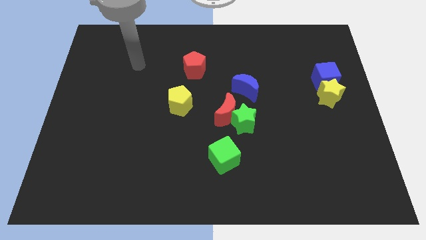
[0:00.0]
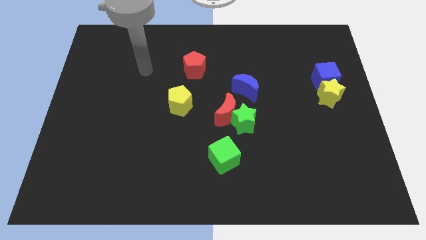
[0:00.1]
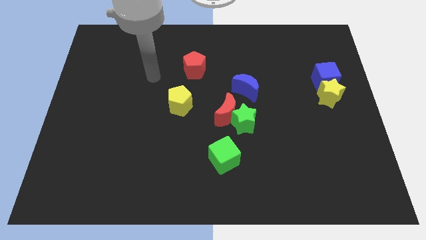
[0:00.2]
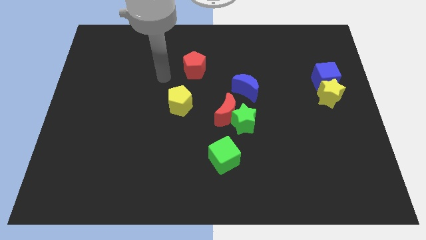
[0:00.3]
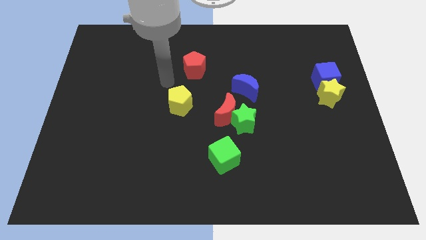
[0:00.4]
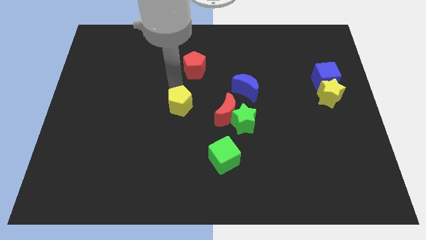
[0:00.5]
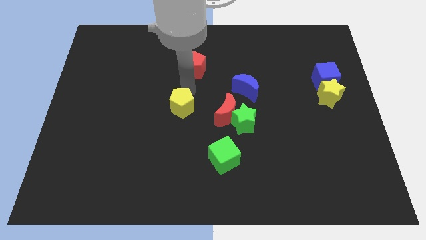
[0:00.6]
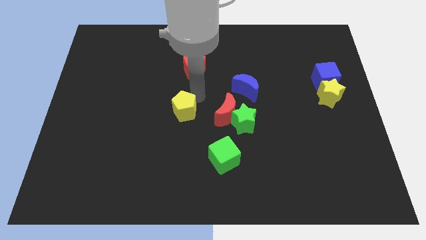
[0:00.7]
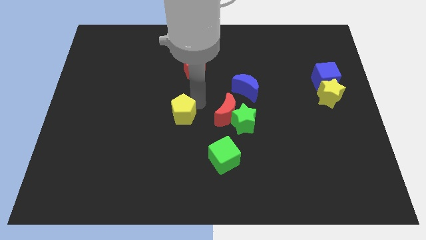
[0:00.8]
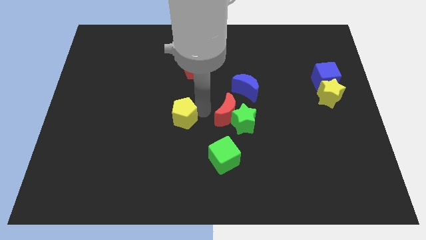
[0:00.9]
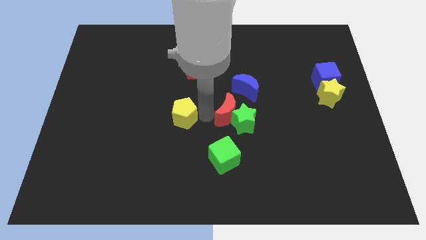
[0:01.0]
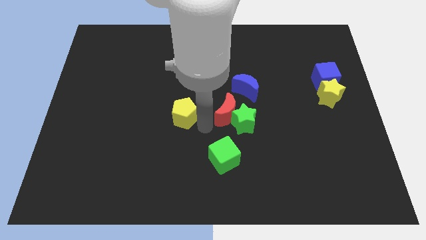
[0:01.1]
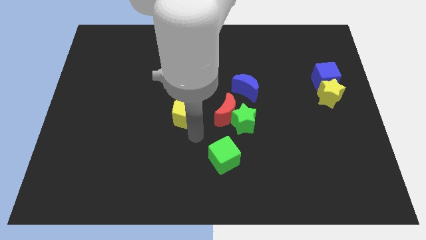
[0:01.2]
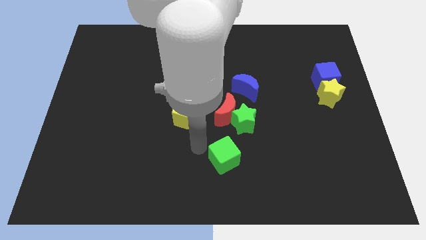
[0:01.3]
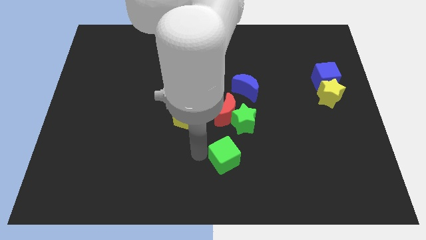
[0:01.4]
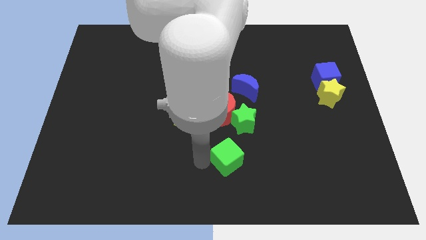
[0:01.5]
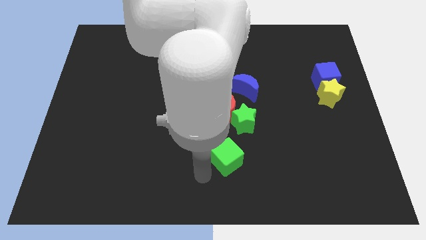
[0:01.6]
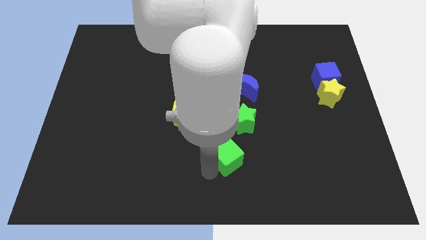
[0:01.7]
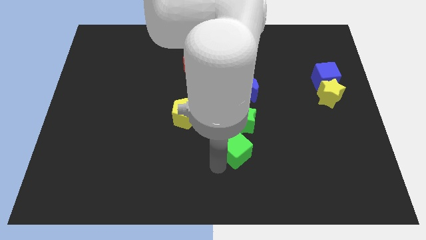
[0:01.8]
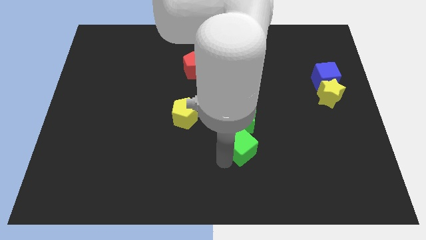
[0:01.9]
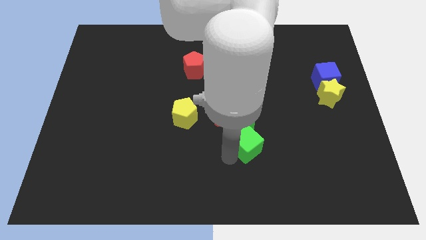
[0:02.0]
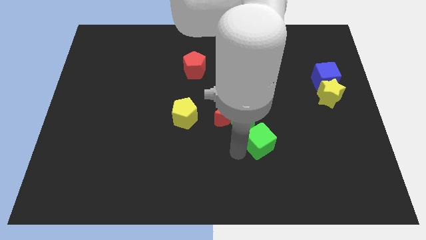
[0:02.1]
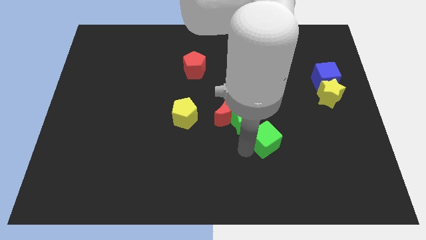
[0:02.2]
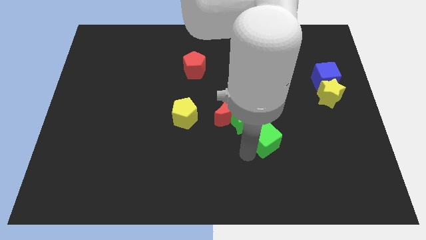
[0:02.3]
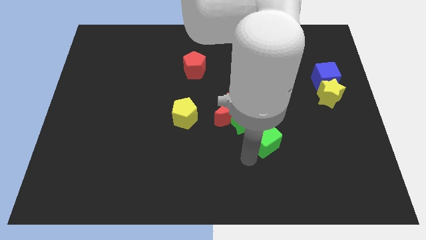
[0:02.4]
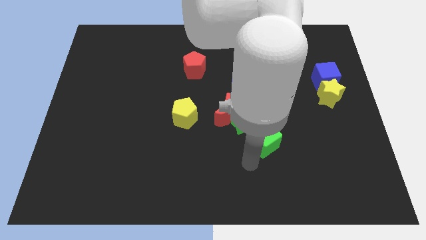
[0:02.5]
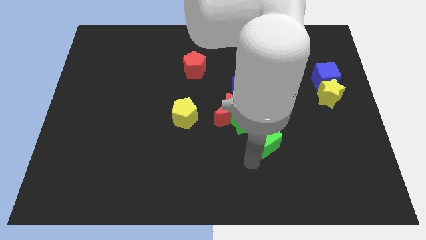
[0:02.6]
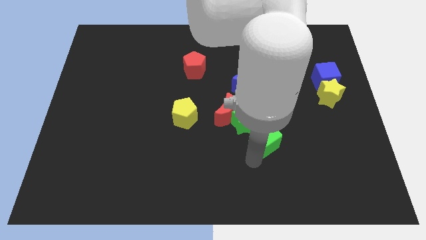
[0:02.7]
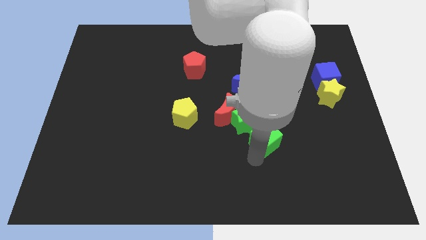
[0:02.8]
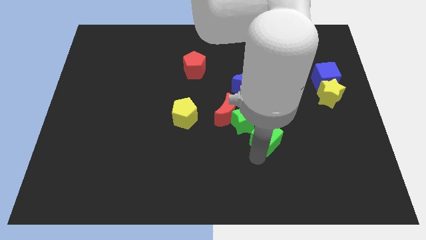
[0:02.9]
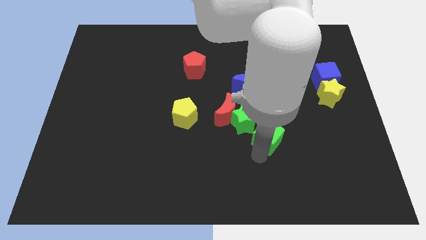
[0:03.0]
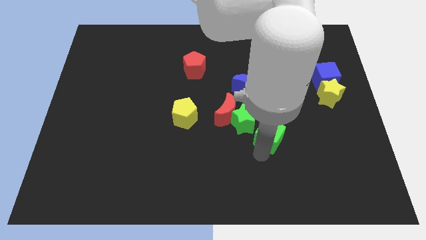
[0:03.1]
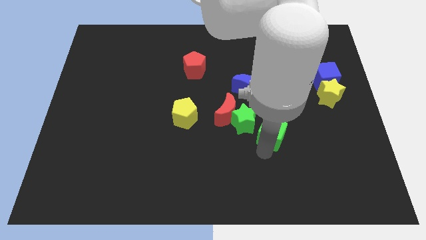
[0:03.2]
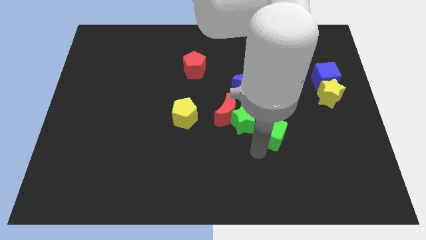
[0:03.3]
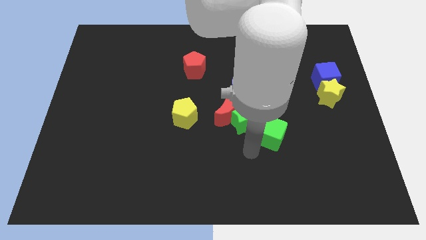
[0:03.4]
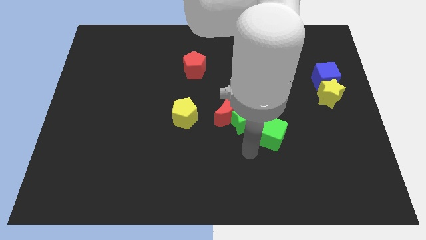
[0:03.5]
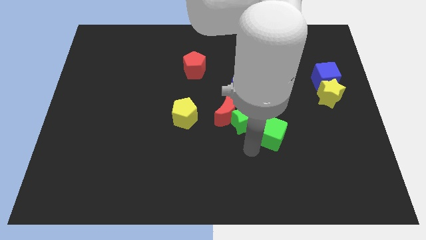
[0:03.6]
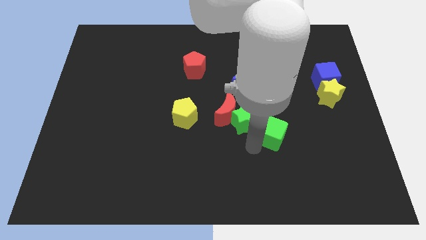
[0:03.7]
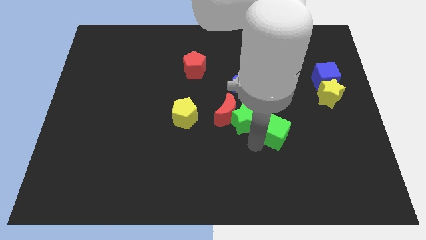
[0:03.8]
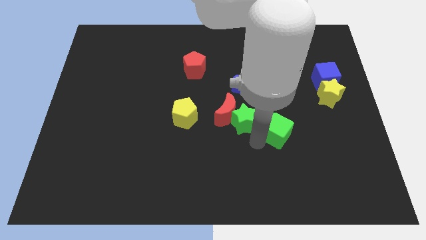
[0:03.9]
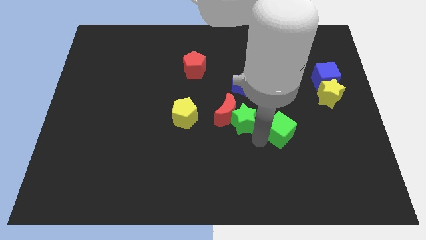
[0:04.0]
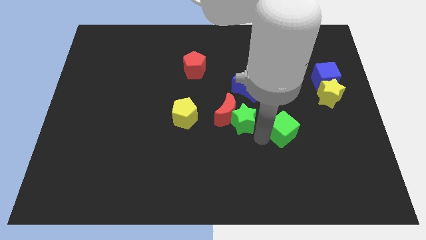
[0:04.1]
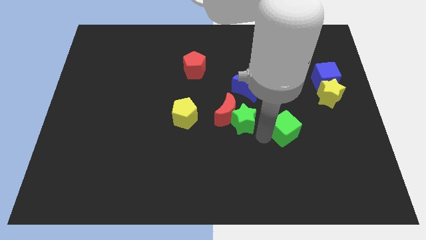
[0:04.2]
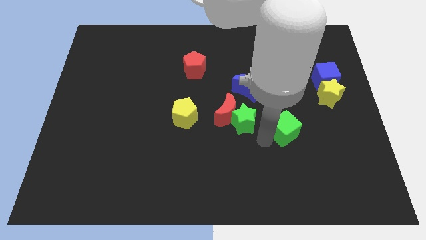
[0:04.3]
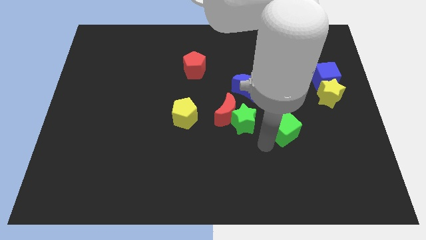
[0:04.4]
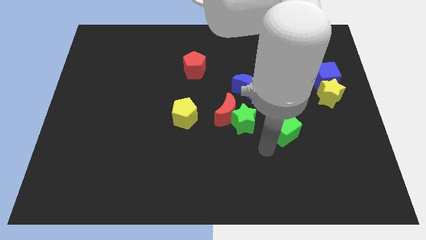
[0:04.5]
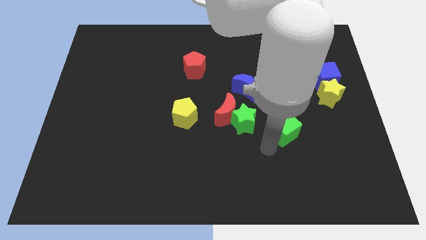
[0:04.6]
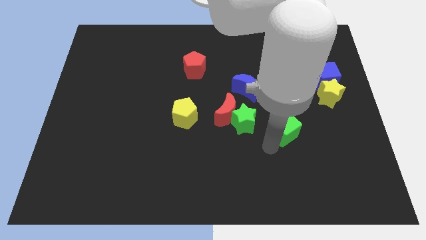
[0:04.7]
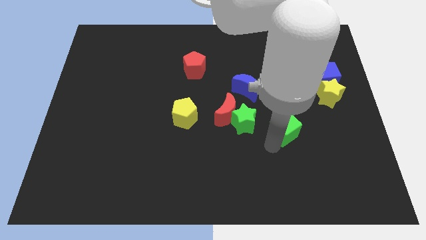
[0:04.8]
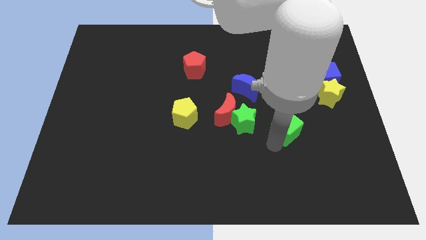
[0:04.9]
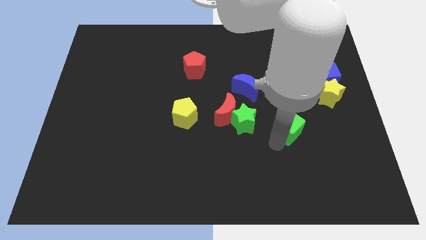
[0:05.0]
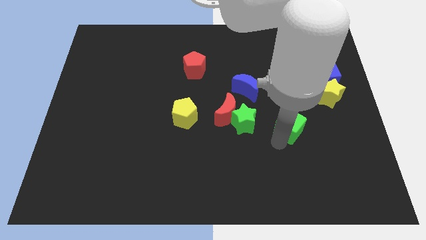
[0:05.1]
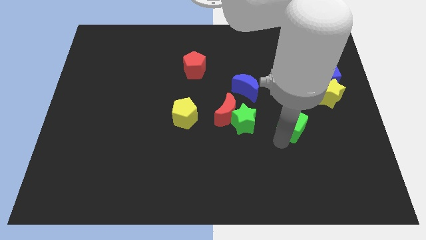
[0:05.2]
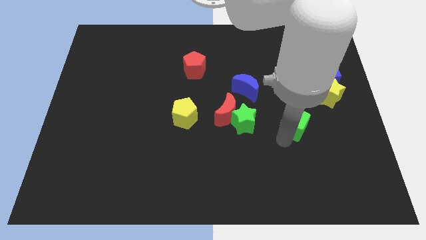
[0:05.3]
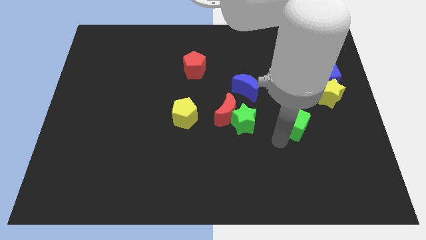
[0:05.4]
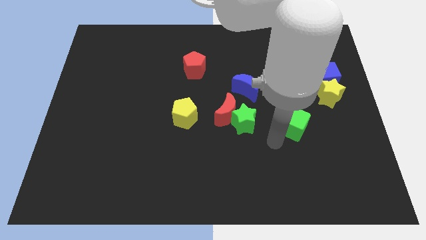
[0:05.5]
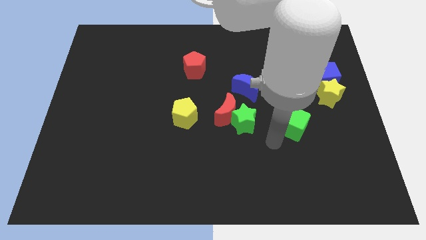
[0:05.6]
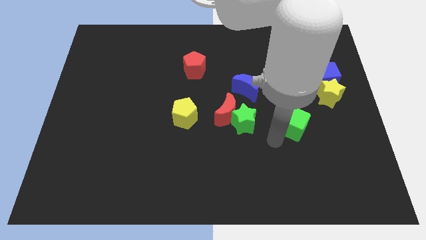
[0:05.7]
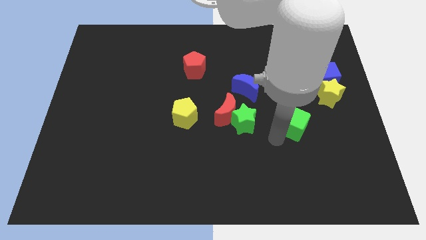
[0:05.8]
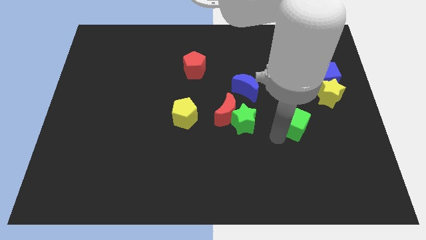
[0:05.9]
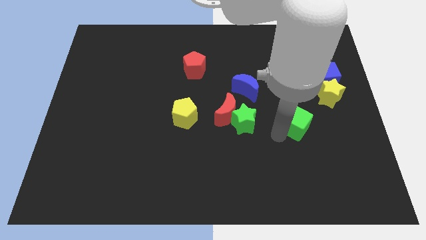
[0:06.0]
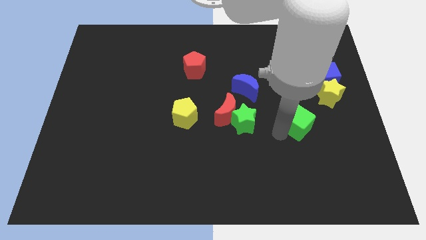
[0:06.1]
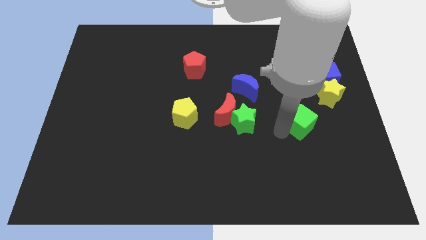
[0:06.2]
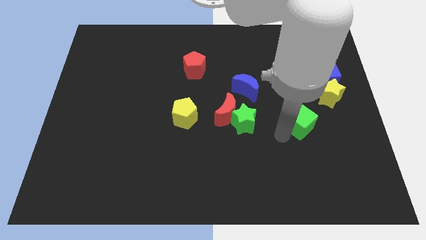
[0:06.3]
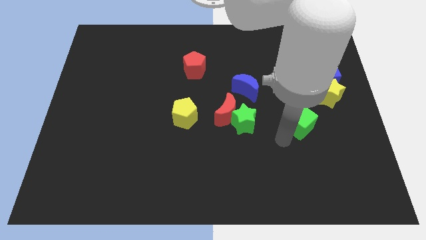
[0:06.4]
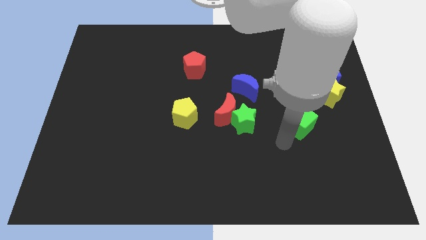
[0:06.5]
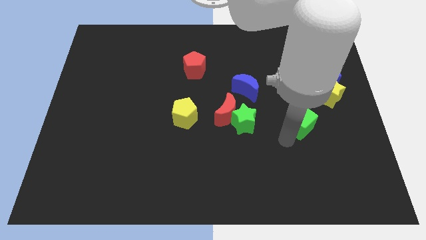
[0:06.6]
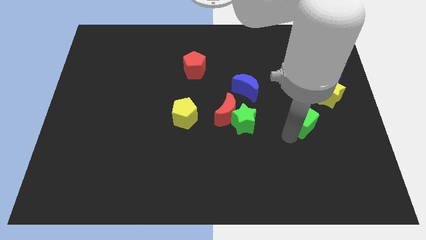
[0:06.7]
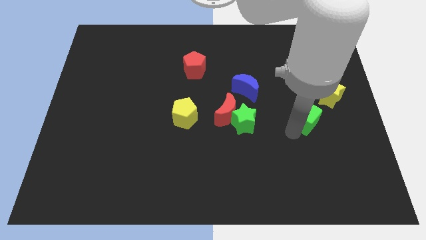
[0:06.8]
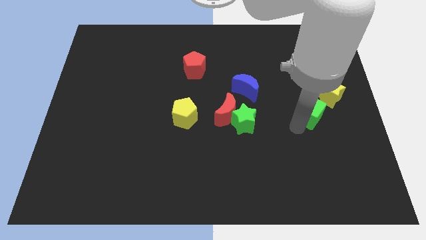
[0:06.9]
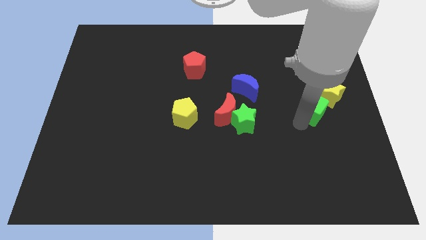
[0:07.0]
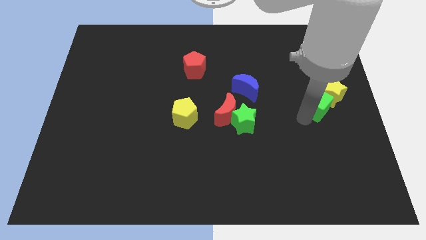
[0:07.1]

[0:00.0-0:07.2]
put the green cube to the yellow star
